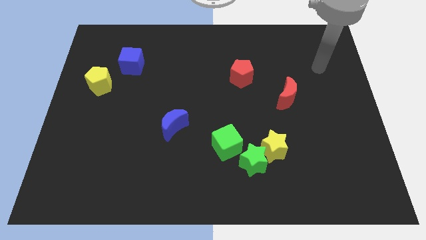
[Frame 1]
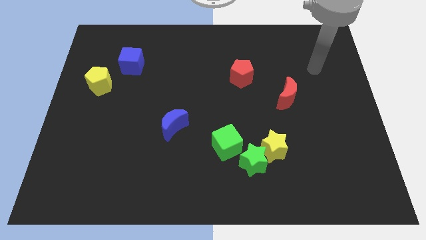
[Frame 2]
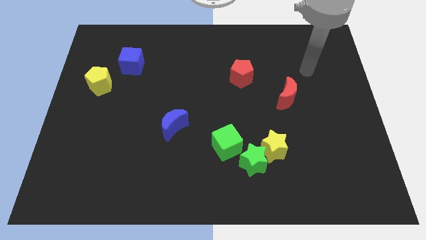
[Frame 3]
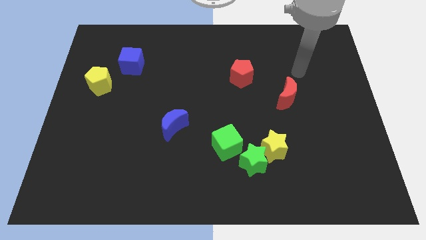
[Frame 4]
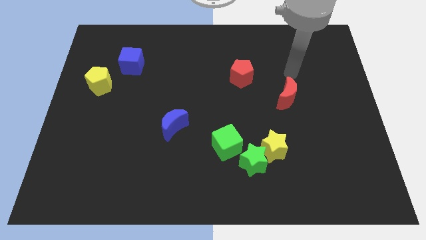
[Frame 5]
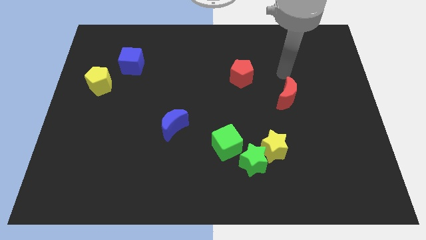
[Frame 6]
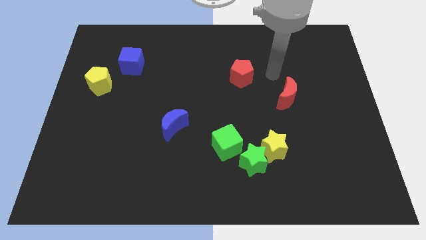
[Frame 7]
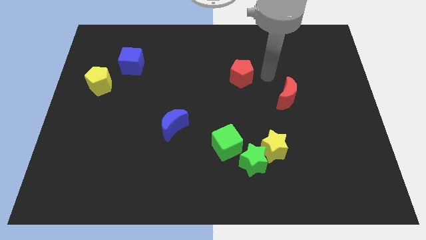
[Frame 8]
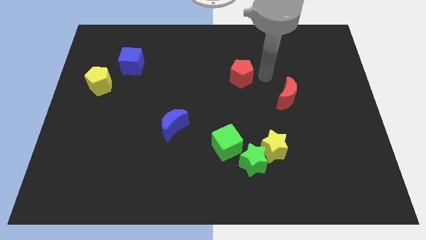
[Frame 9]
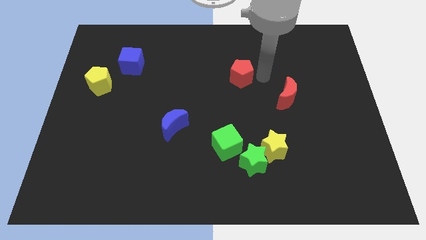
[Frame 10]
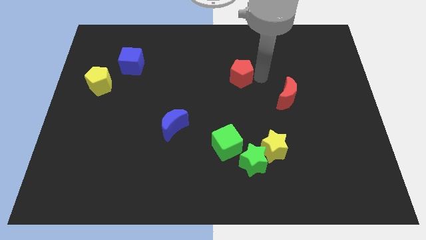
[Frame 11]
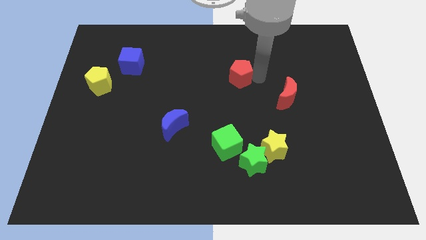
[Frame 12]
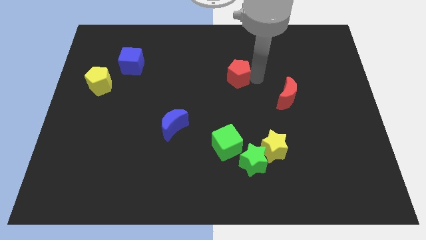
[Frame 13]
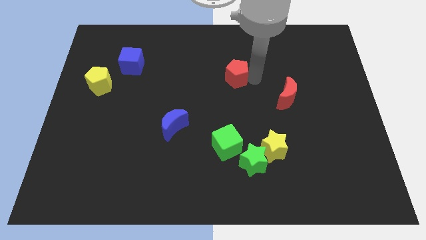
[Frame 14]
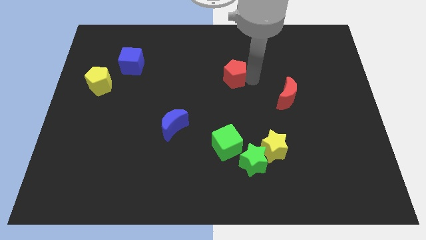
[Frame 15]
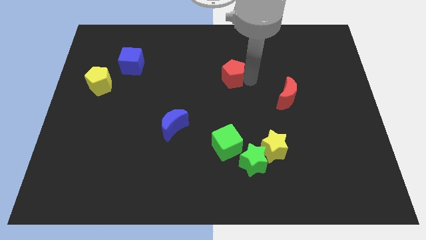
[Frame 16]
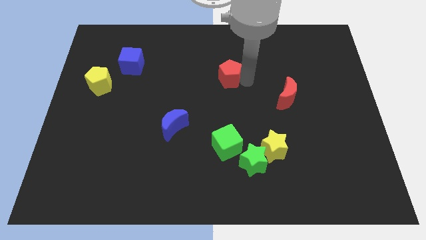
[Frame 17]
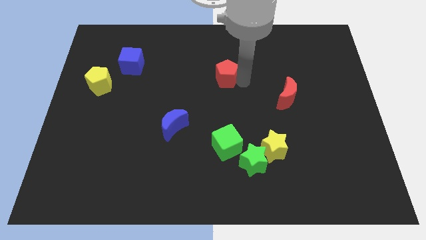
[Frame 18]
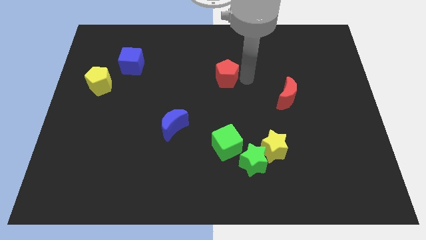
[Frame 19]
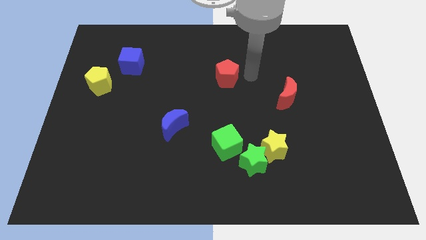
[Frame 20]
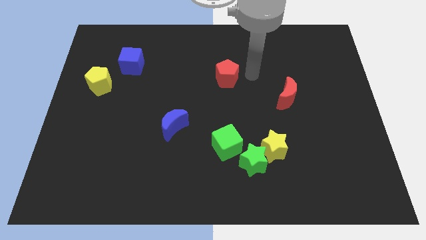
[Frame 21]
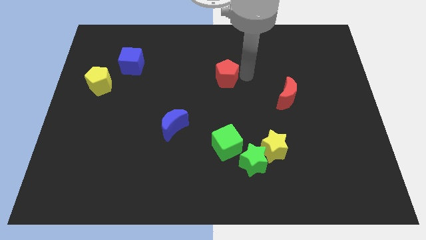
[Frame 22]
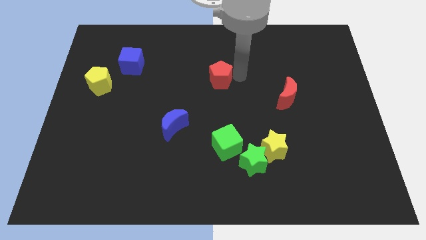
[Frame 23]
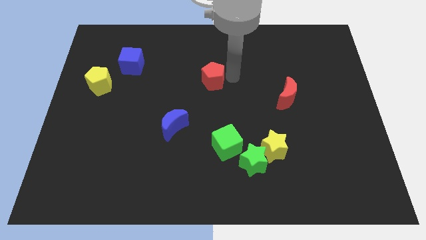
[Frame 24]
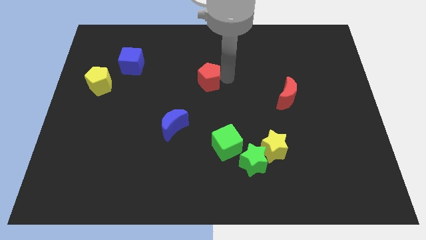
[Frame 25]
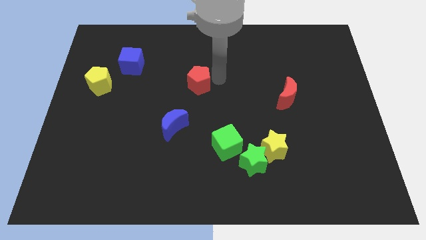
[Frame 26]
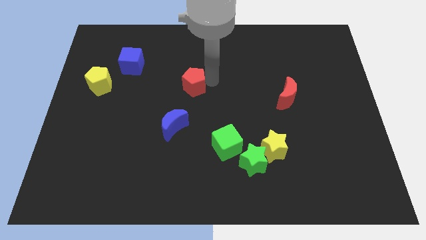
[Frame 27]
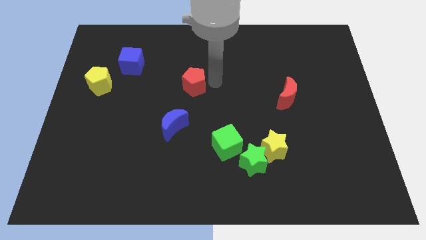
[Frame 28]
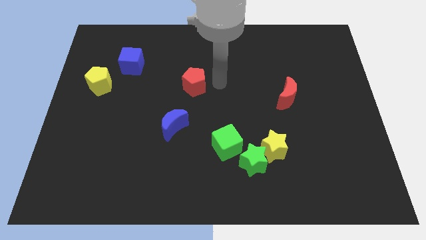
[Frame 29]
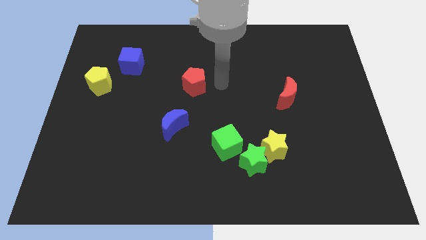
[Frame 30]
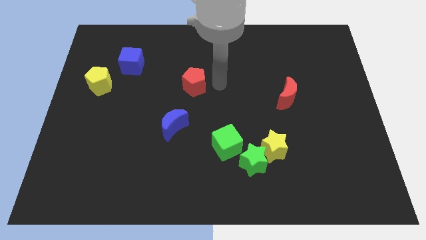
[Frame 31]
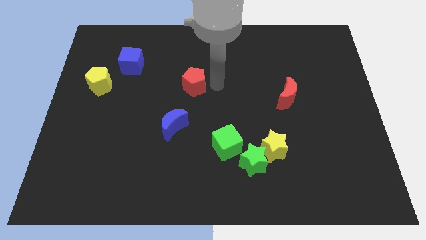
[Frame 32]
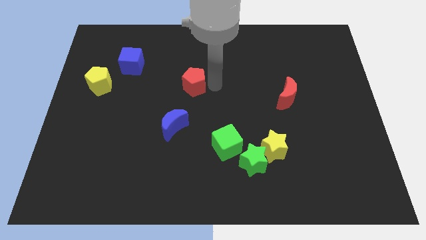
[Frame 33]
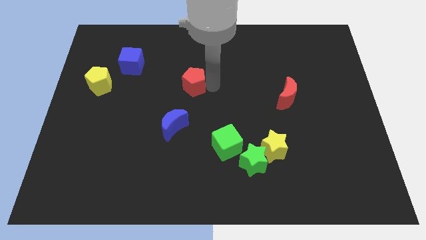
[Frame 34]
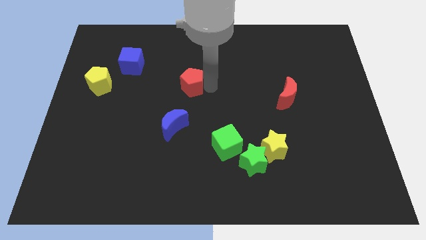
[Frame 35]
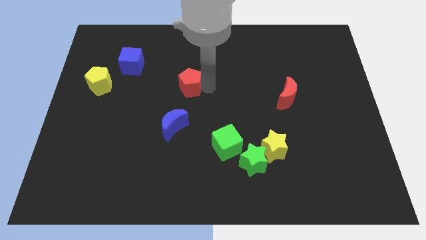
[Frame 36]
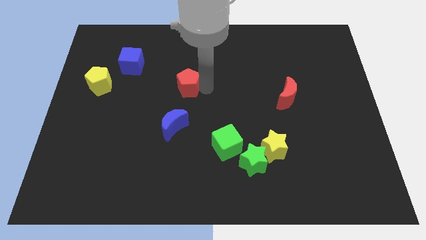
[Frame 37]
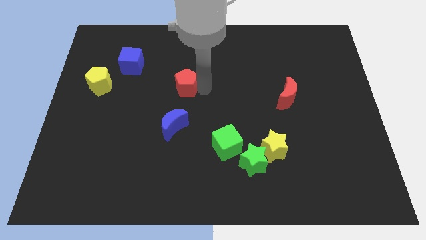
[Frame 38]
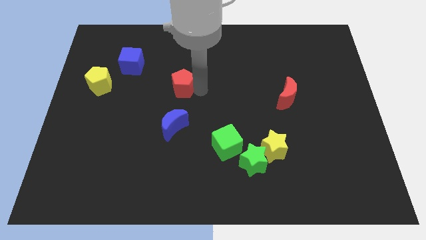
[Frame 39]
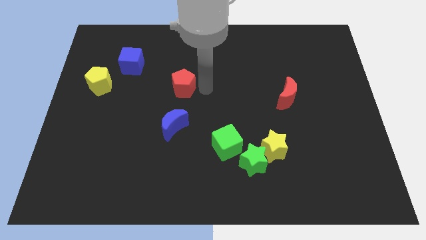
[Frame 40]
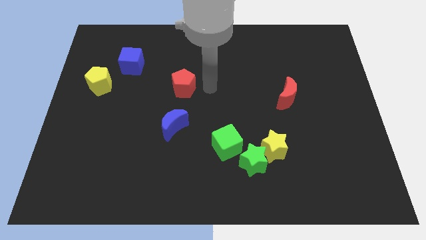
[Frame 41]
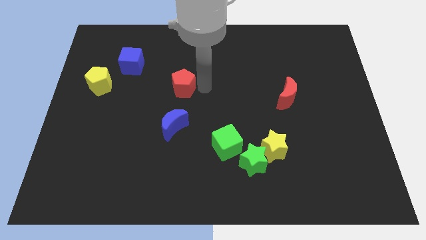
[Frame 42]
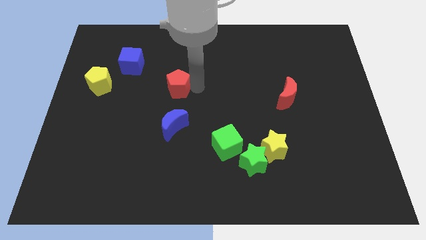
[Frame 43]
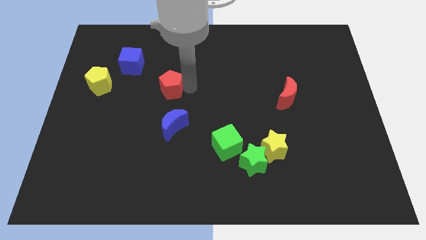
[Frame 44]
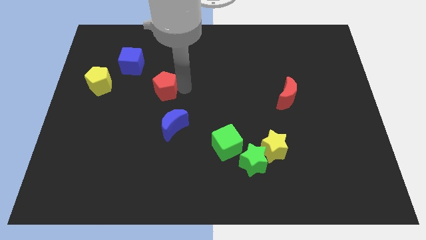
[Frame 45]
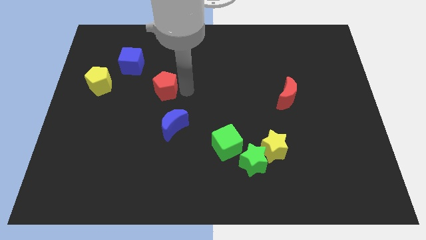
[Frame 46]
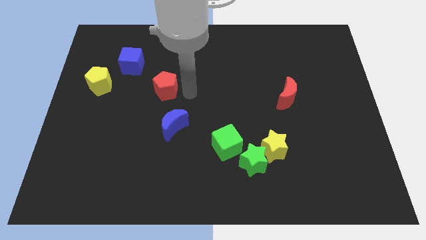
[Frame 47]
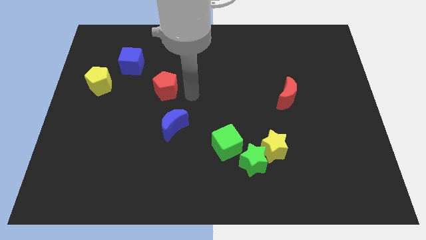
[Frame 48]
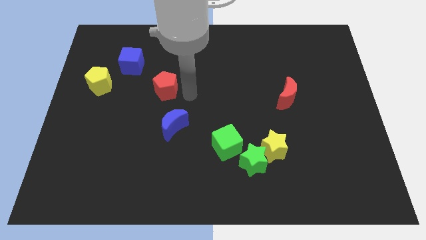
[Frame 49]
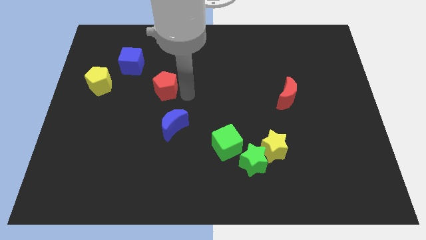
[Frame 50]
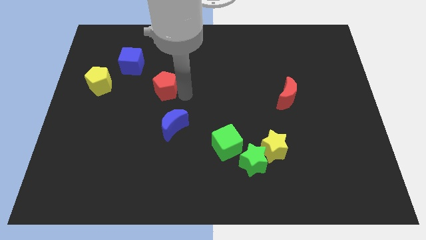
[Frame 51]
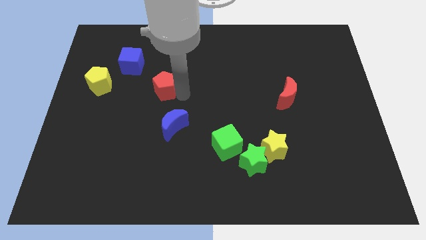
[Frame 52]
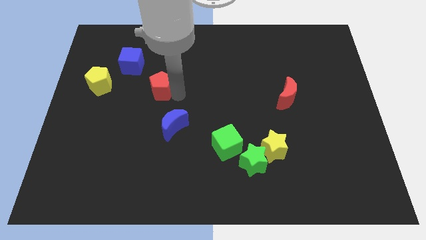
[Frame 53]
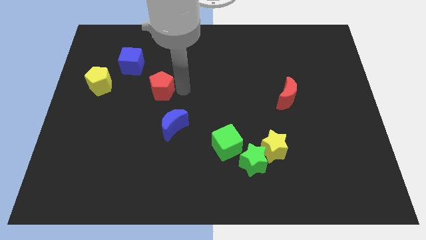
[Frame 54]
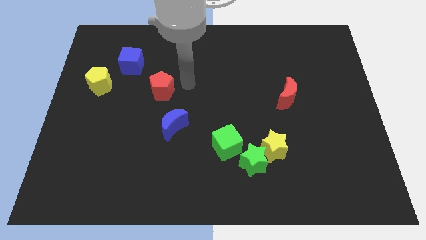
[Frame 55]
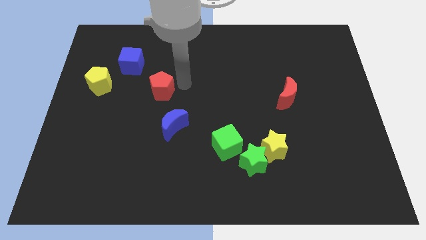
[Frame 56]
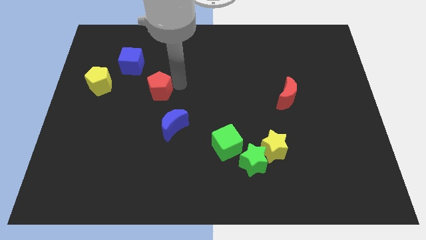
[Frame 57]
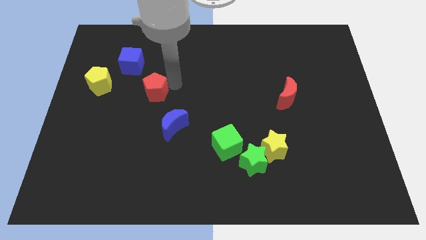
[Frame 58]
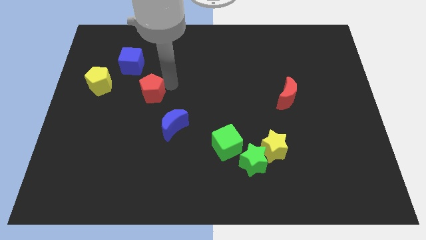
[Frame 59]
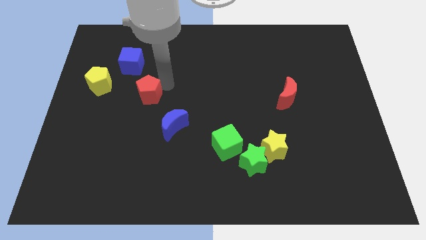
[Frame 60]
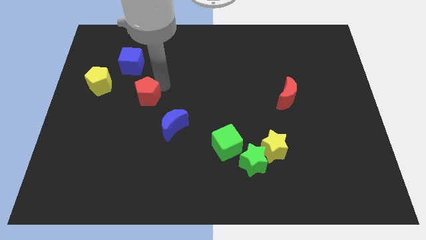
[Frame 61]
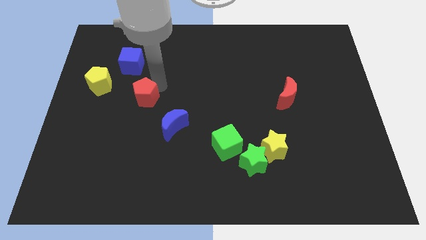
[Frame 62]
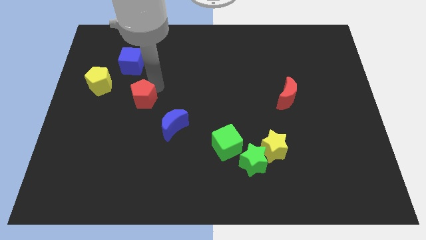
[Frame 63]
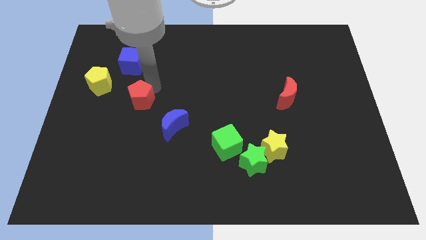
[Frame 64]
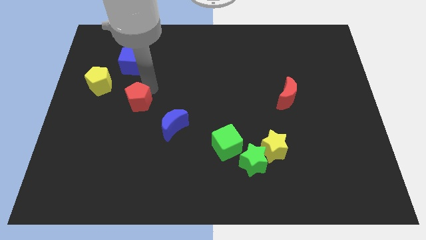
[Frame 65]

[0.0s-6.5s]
put the red pentagon to the bottom right of the yellow pentagon

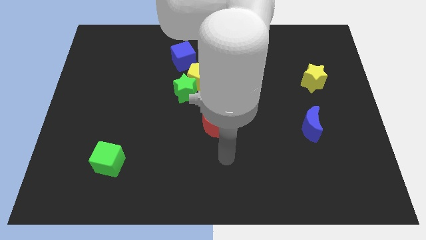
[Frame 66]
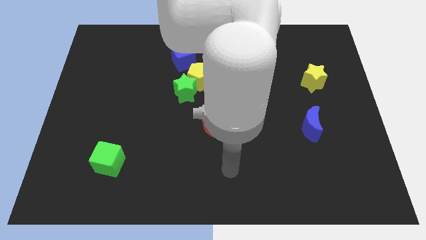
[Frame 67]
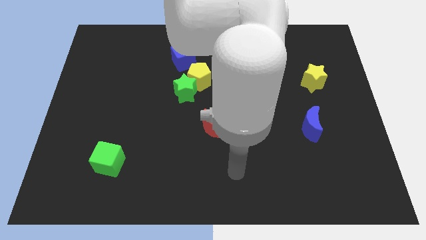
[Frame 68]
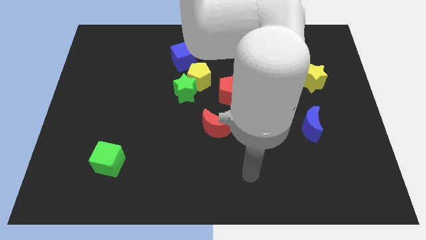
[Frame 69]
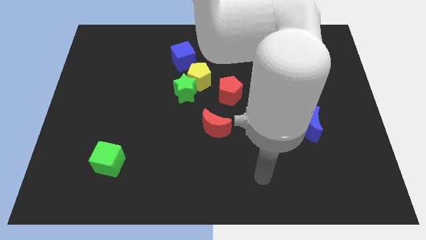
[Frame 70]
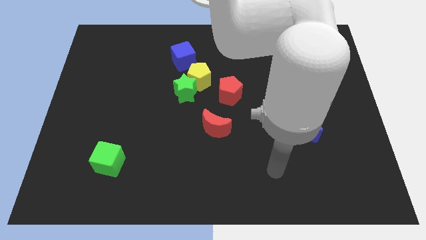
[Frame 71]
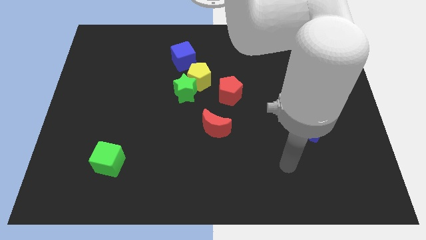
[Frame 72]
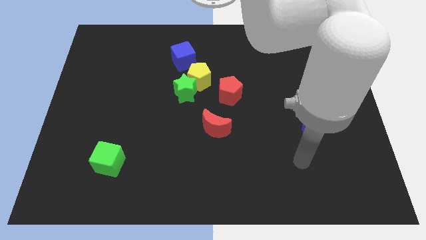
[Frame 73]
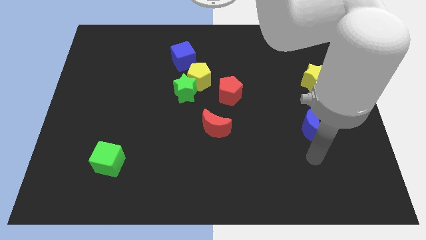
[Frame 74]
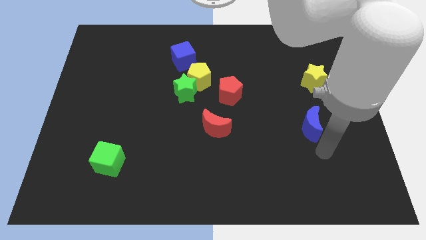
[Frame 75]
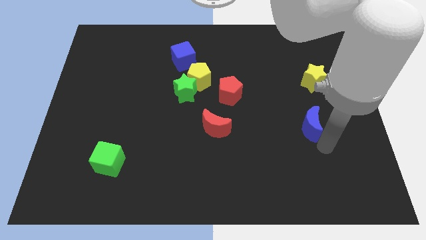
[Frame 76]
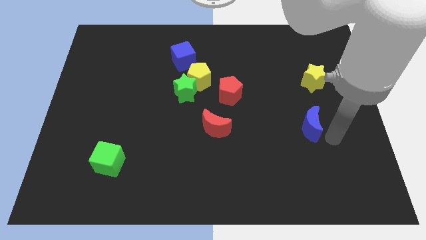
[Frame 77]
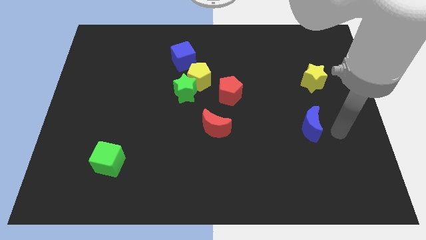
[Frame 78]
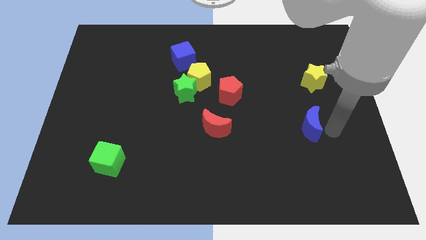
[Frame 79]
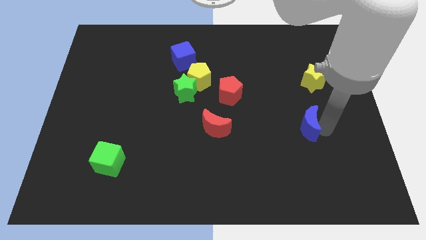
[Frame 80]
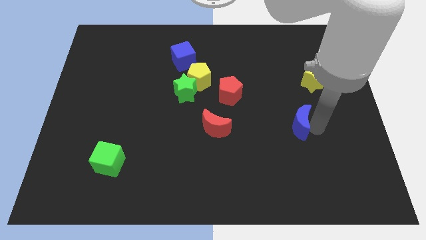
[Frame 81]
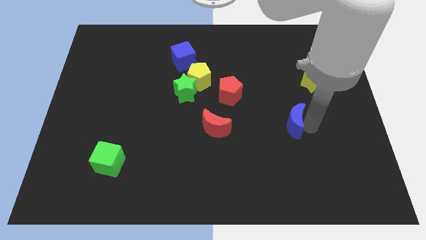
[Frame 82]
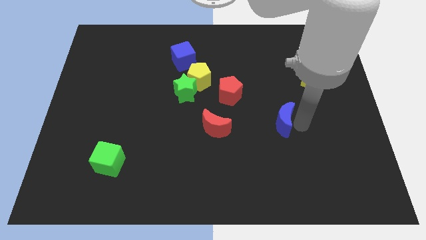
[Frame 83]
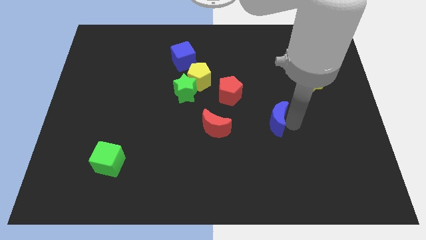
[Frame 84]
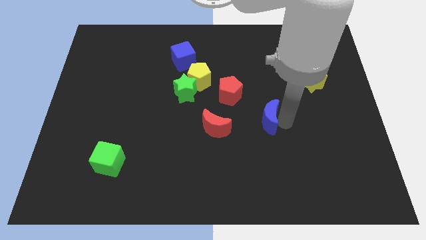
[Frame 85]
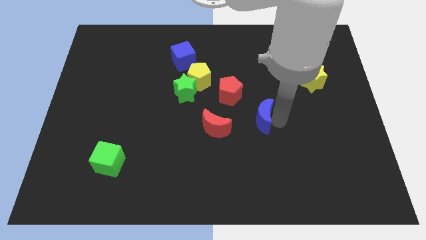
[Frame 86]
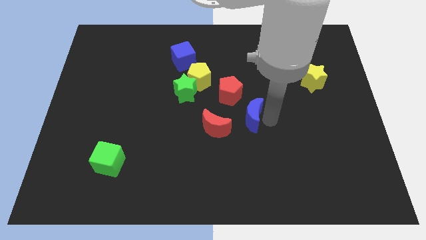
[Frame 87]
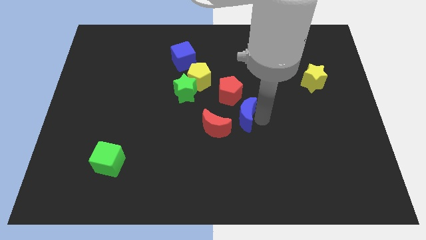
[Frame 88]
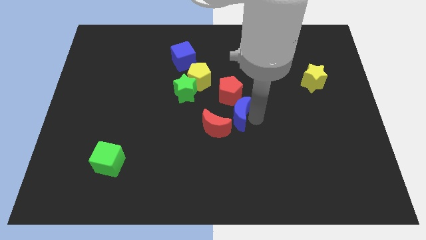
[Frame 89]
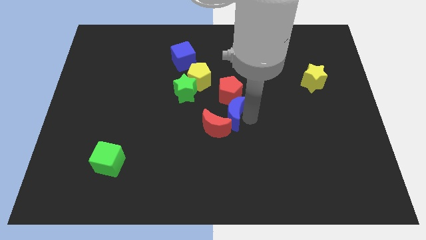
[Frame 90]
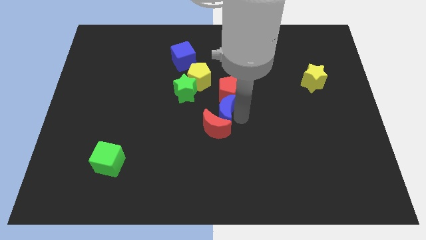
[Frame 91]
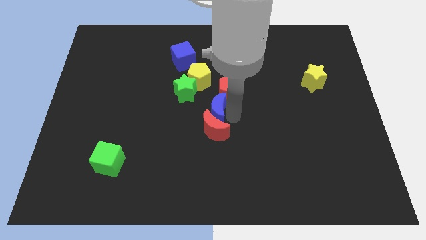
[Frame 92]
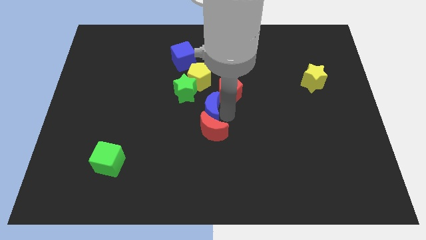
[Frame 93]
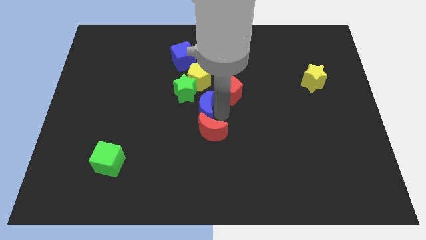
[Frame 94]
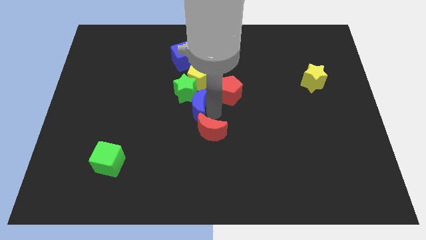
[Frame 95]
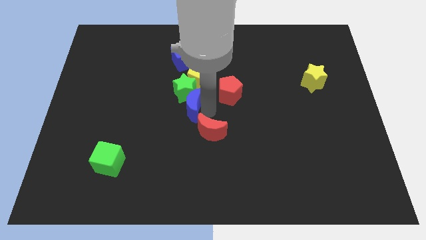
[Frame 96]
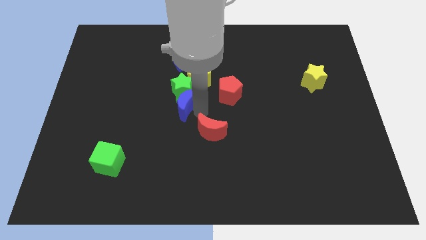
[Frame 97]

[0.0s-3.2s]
move the blue moon to the bottom of the blue cube
